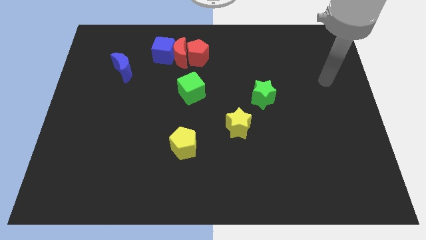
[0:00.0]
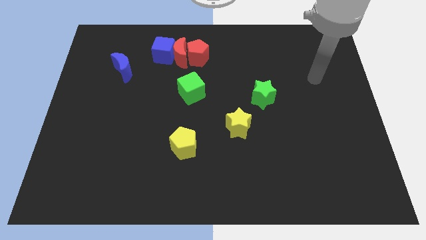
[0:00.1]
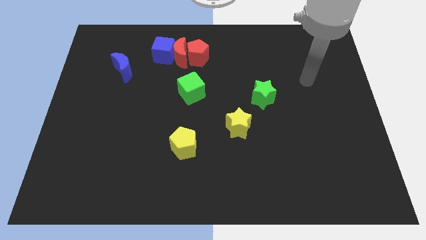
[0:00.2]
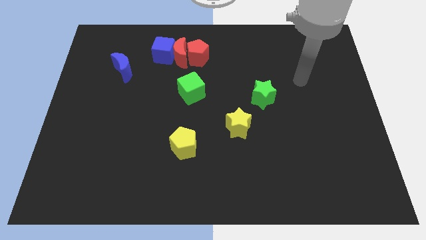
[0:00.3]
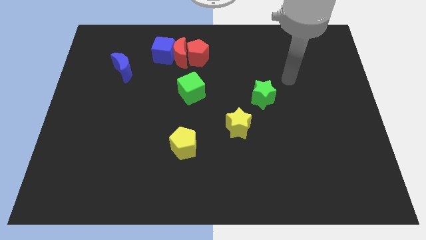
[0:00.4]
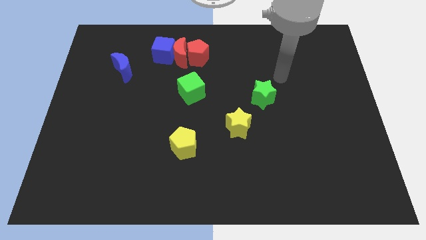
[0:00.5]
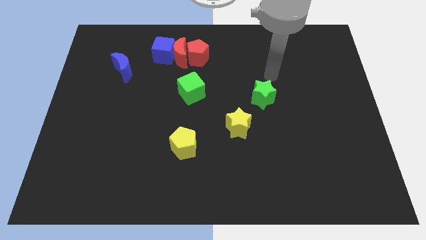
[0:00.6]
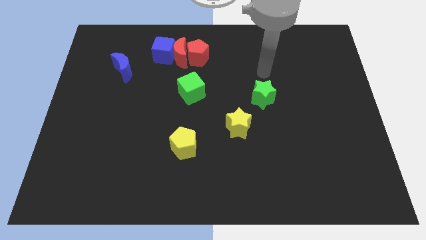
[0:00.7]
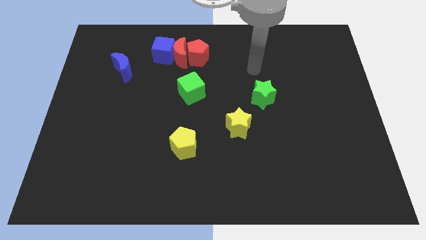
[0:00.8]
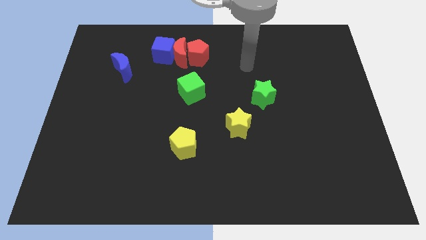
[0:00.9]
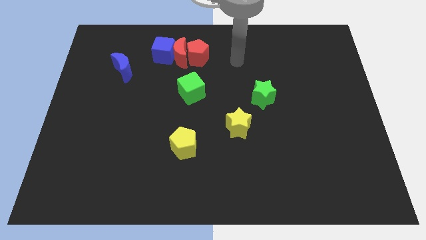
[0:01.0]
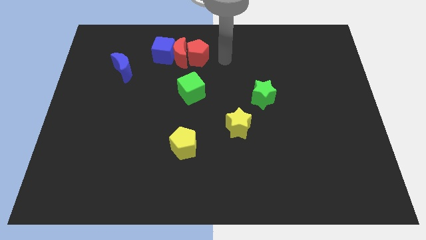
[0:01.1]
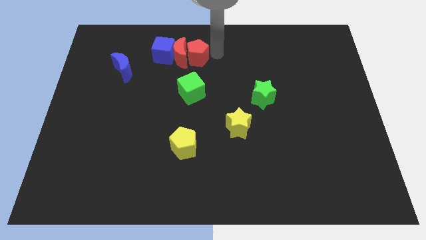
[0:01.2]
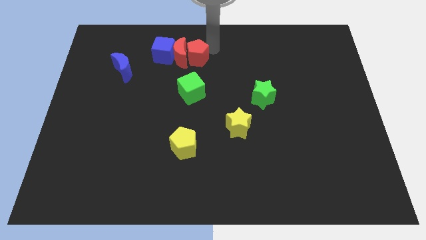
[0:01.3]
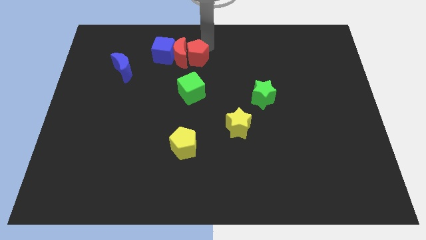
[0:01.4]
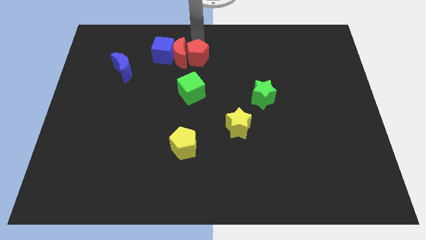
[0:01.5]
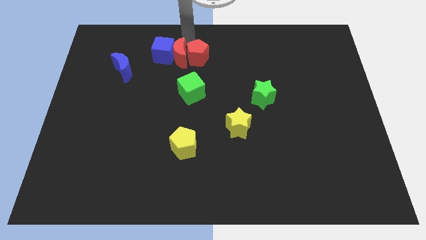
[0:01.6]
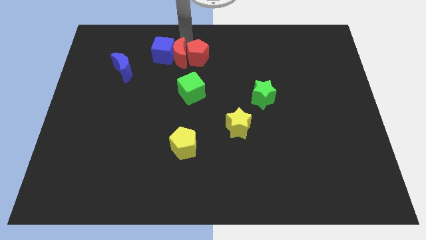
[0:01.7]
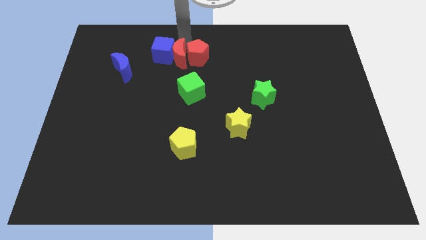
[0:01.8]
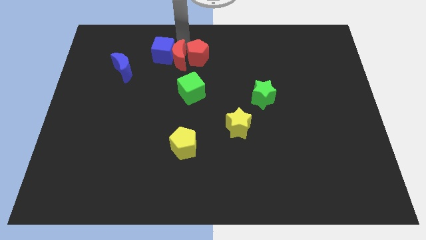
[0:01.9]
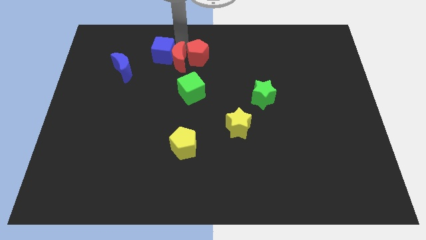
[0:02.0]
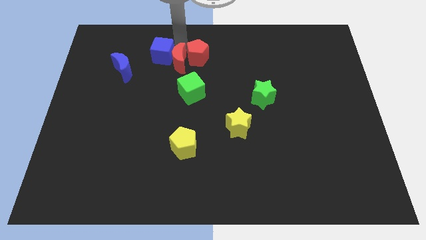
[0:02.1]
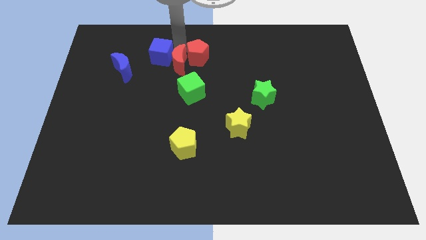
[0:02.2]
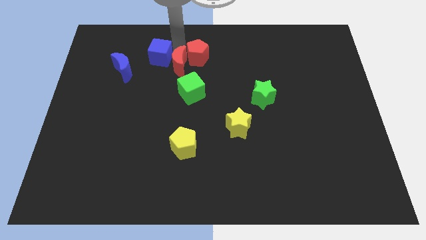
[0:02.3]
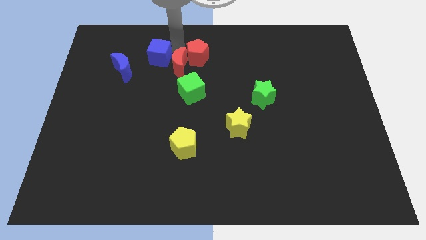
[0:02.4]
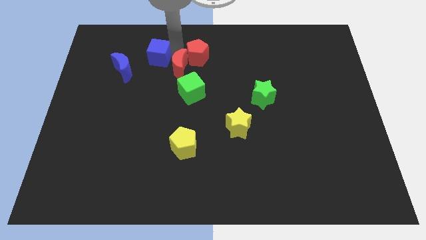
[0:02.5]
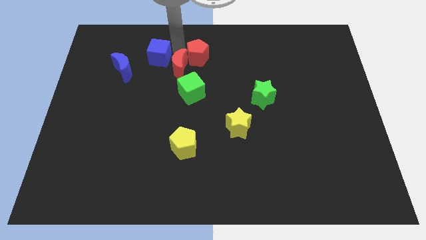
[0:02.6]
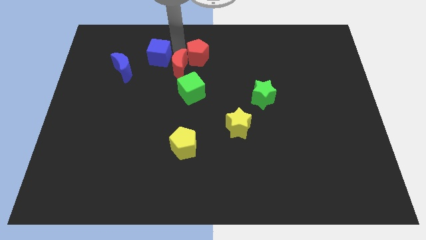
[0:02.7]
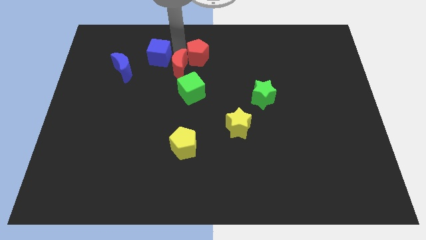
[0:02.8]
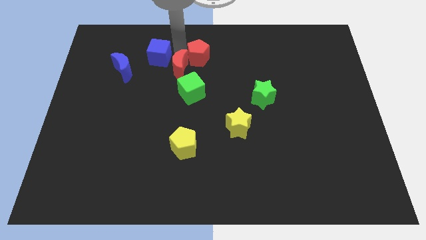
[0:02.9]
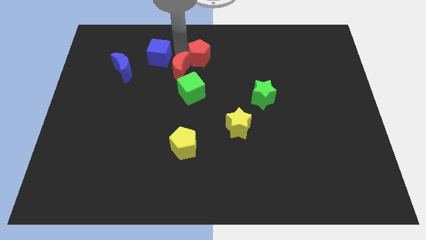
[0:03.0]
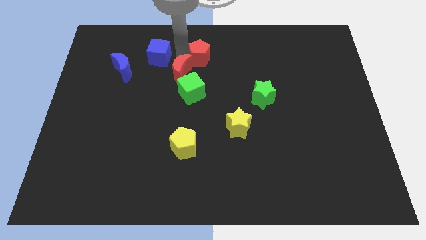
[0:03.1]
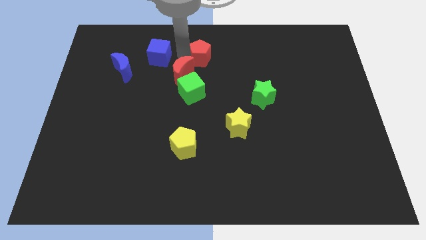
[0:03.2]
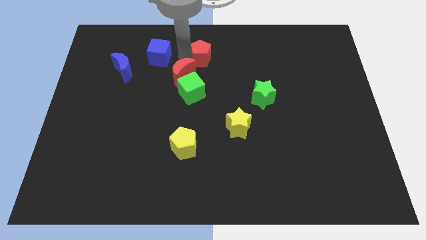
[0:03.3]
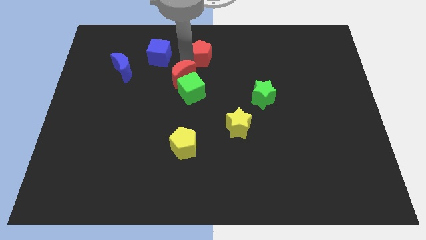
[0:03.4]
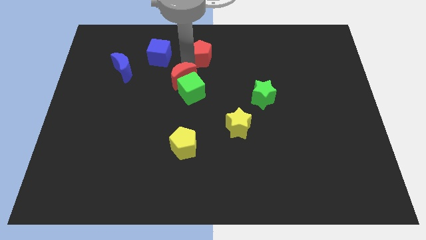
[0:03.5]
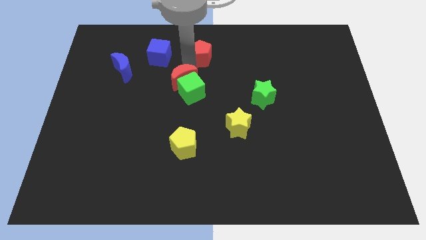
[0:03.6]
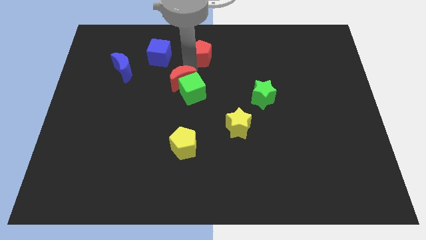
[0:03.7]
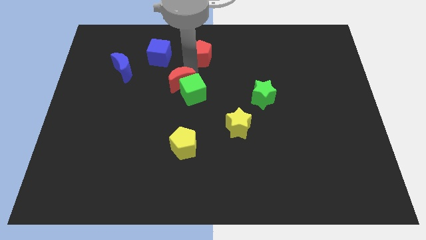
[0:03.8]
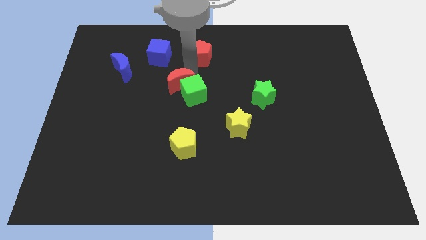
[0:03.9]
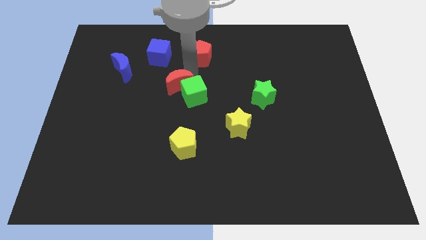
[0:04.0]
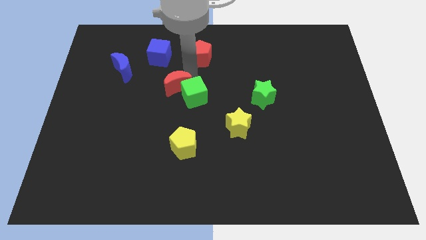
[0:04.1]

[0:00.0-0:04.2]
move the red moon away from the blue cube and red pentagon

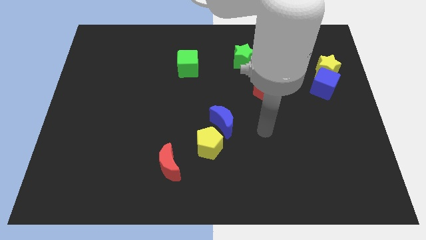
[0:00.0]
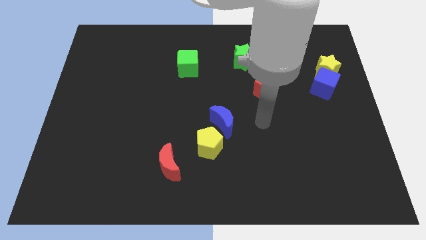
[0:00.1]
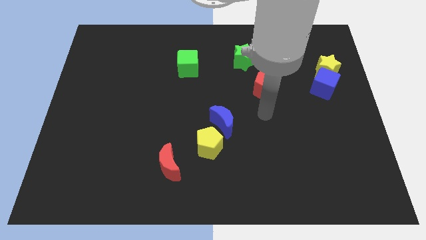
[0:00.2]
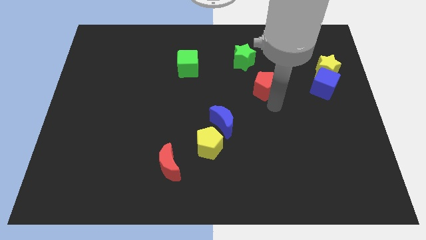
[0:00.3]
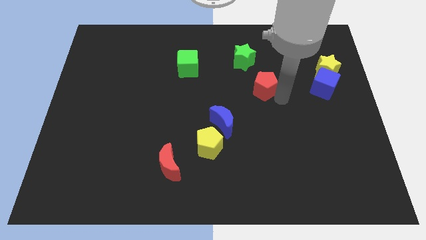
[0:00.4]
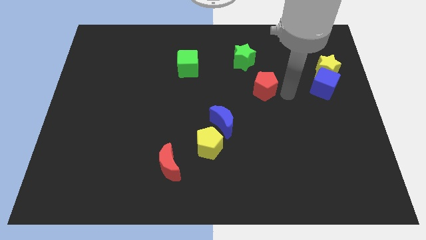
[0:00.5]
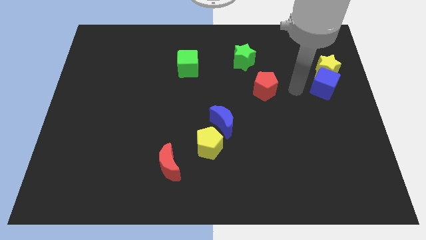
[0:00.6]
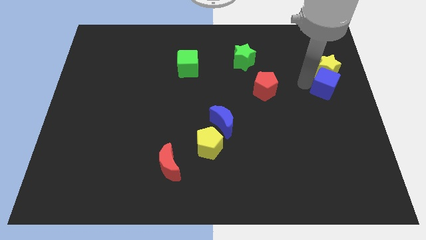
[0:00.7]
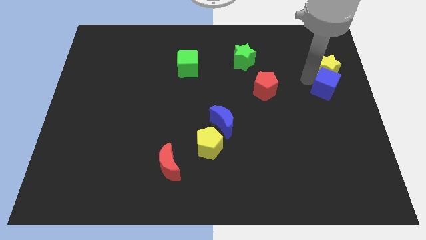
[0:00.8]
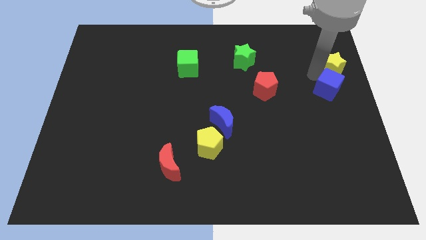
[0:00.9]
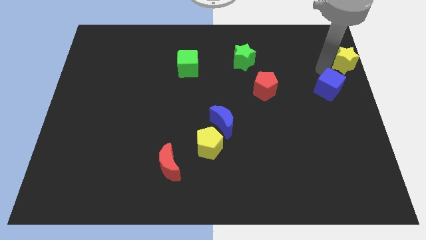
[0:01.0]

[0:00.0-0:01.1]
move the blue cube away from the yellow star

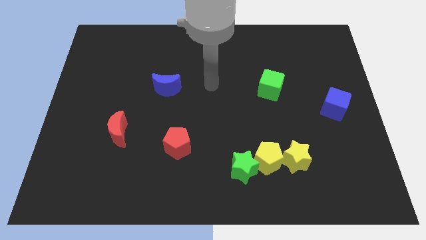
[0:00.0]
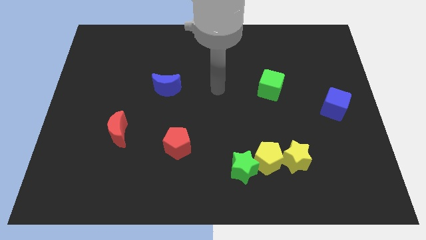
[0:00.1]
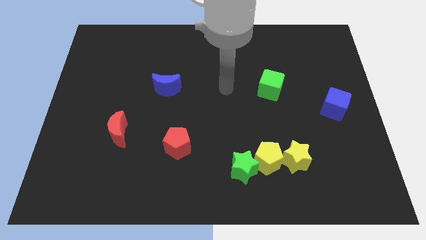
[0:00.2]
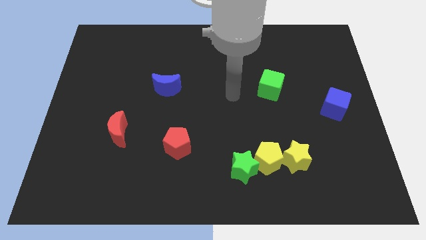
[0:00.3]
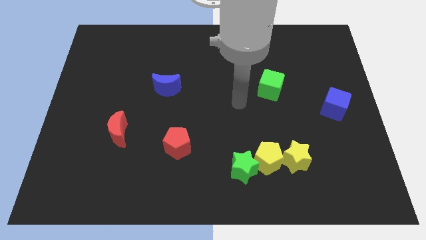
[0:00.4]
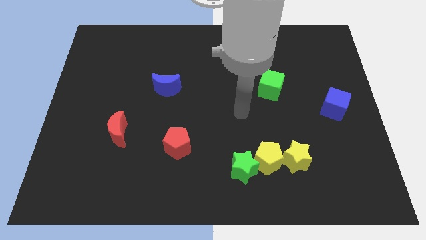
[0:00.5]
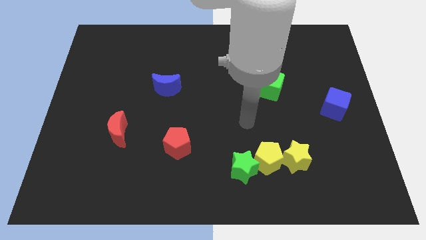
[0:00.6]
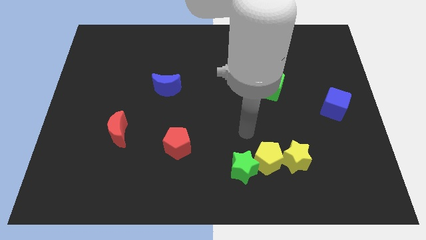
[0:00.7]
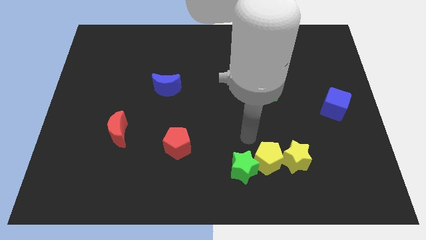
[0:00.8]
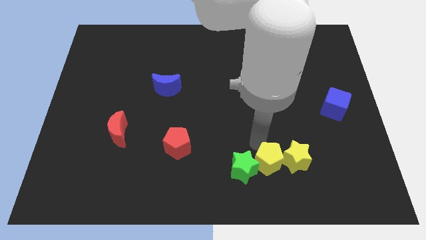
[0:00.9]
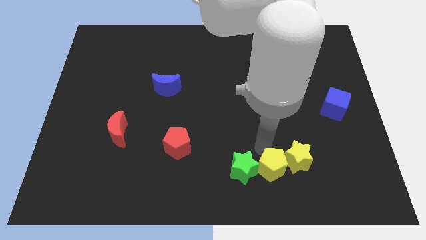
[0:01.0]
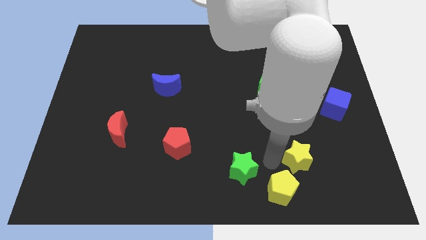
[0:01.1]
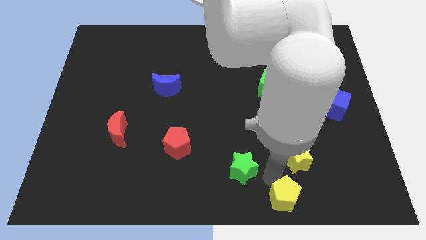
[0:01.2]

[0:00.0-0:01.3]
pull the green star apart from the yellow pentagon

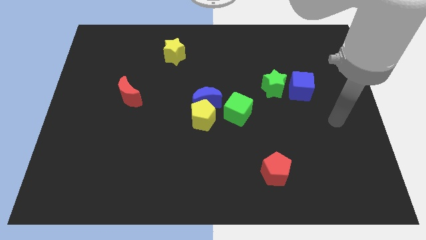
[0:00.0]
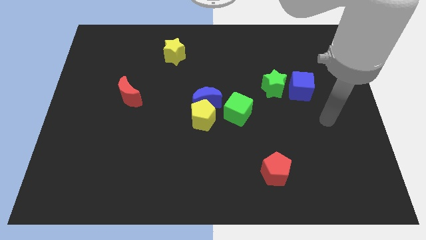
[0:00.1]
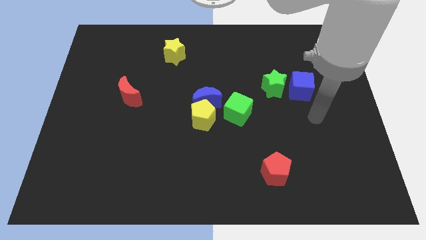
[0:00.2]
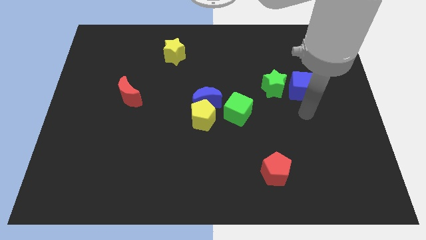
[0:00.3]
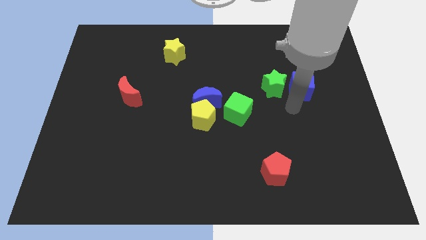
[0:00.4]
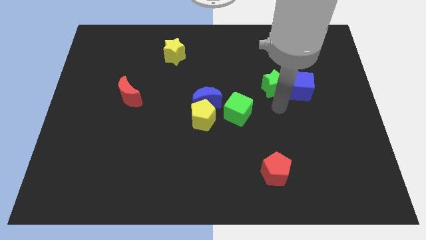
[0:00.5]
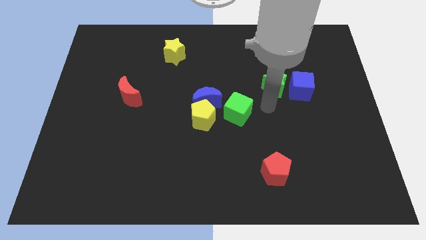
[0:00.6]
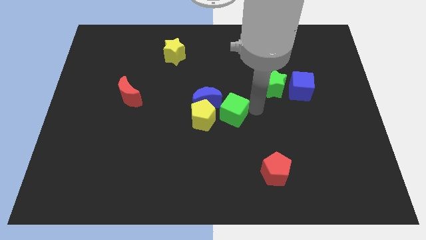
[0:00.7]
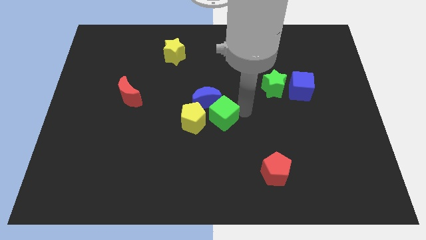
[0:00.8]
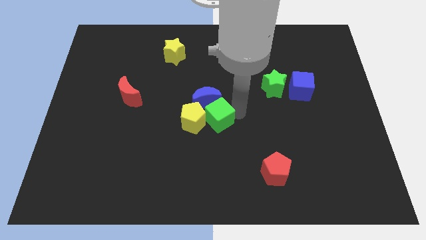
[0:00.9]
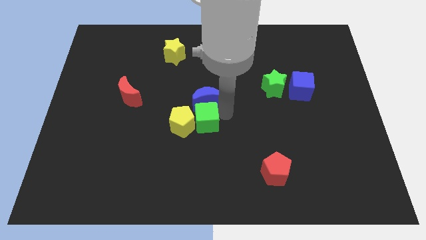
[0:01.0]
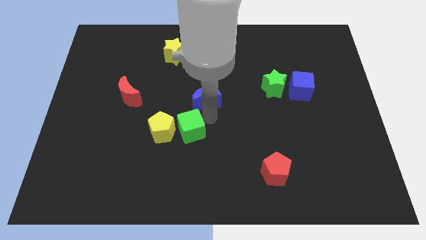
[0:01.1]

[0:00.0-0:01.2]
pull the blue moon apart from the yellow pentagon and green cube

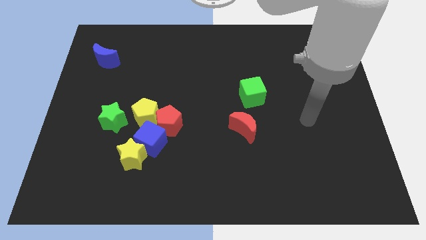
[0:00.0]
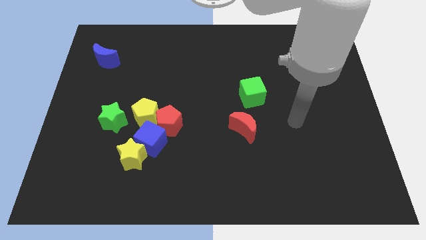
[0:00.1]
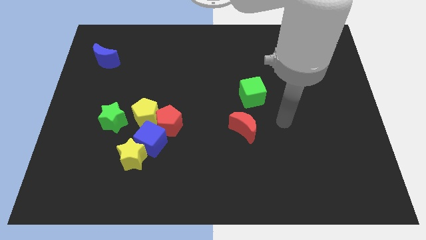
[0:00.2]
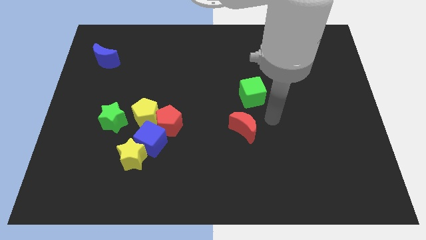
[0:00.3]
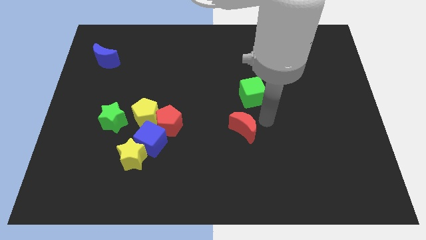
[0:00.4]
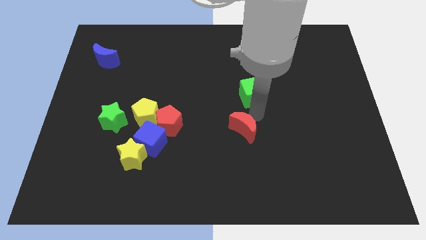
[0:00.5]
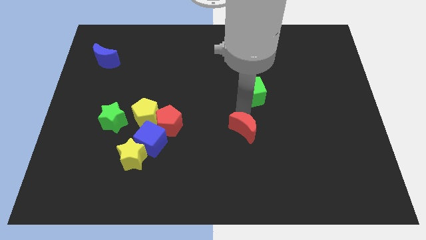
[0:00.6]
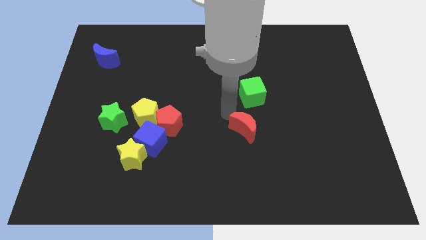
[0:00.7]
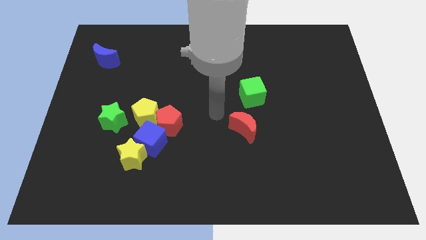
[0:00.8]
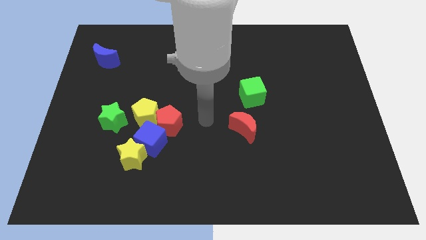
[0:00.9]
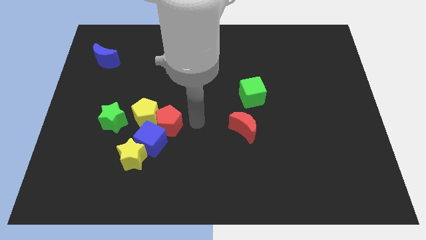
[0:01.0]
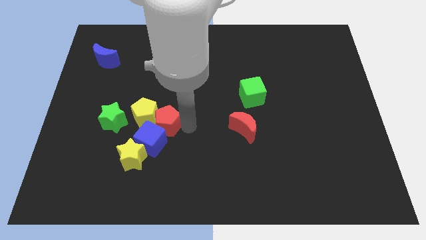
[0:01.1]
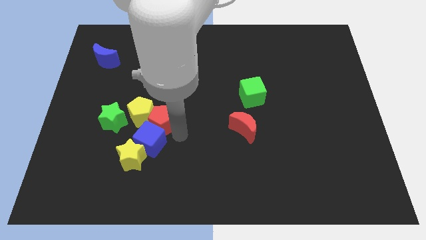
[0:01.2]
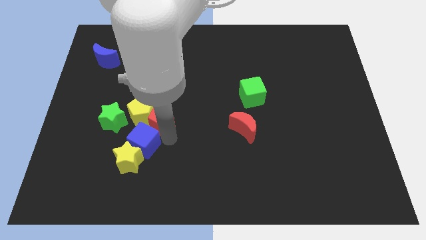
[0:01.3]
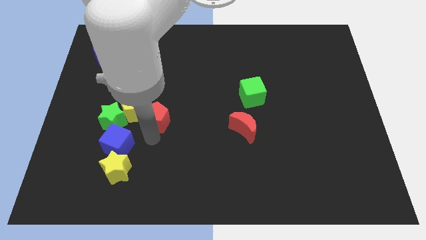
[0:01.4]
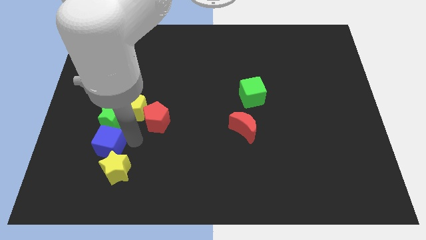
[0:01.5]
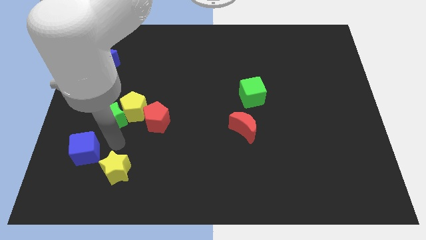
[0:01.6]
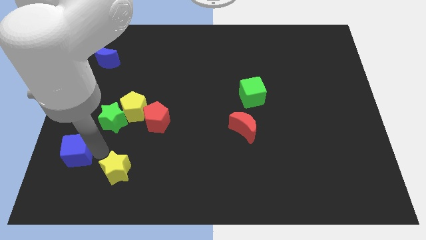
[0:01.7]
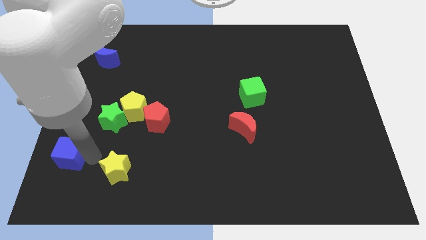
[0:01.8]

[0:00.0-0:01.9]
pull the yellow star apart from the blue cube
